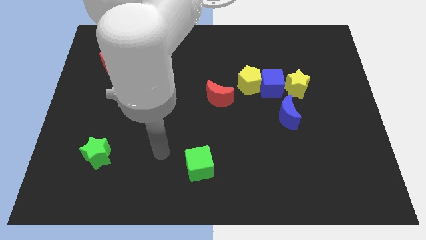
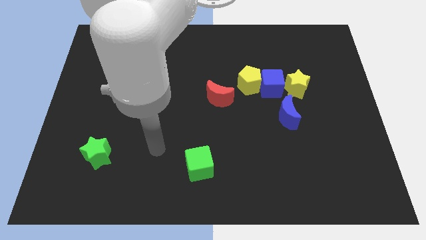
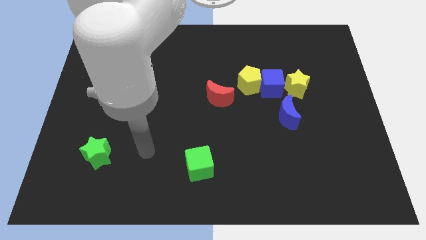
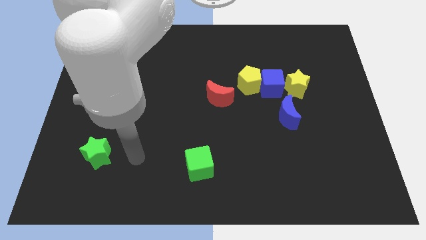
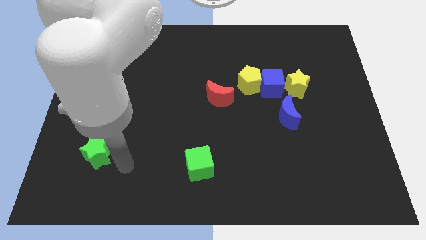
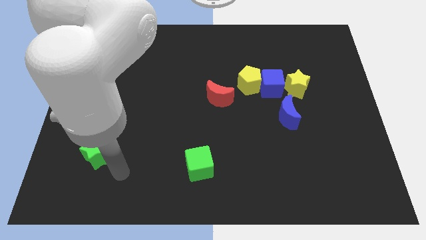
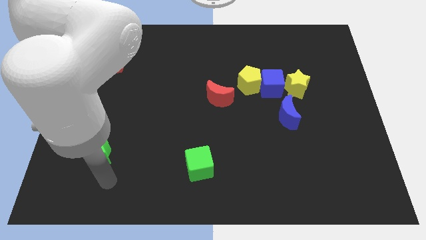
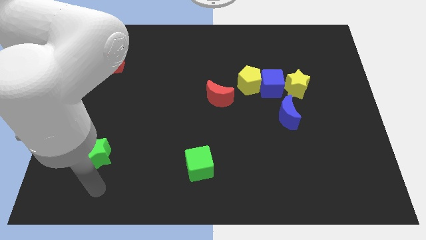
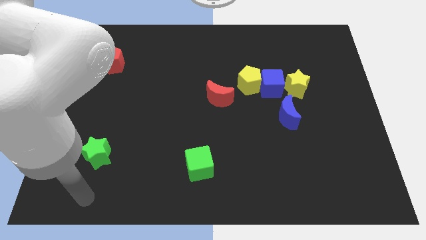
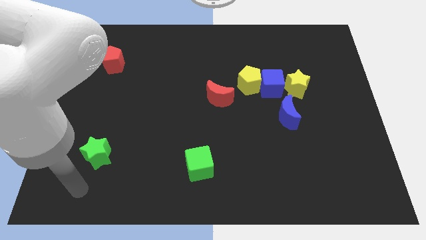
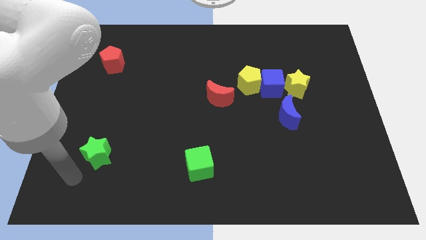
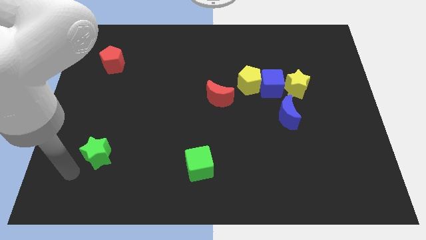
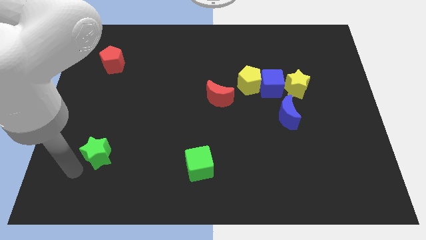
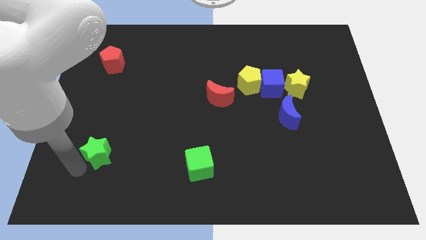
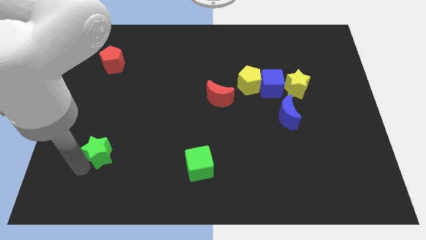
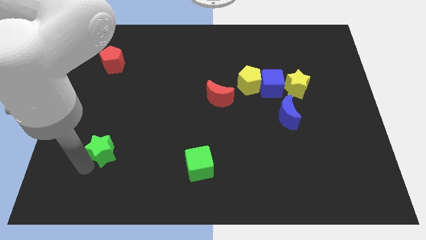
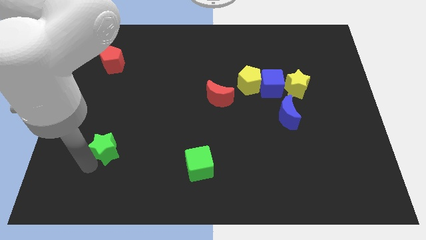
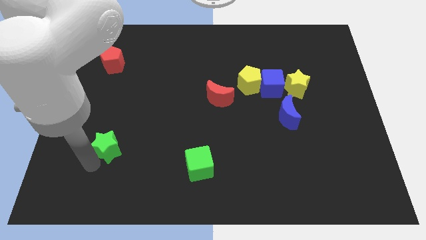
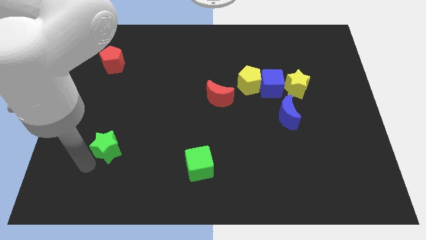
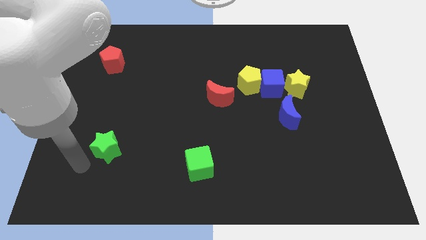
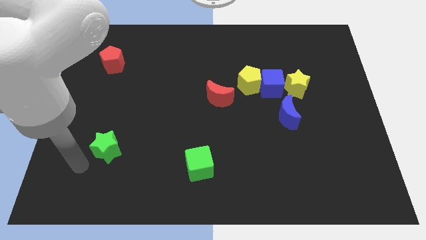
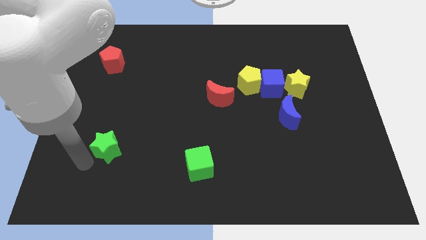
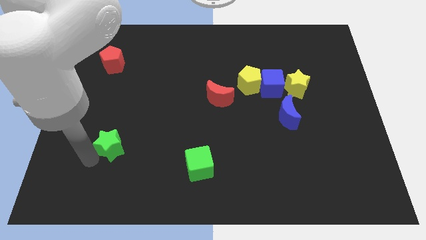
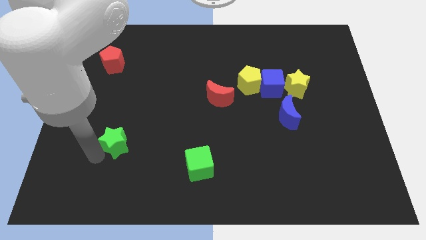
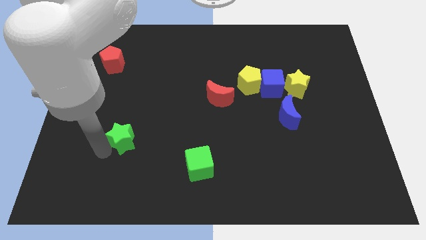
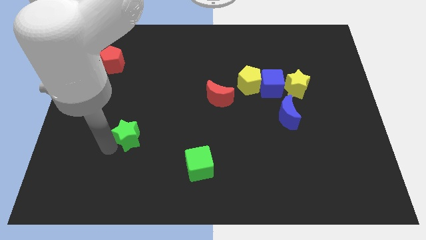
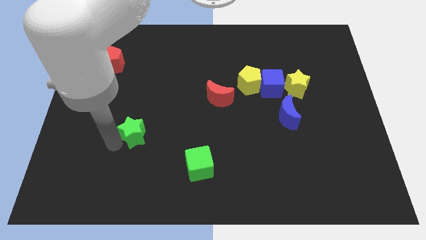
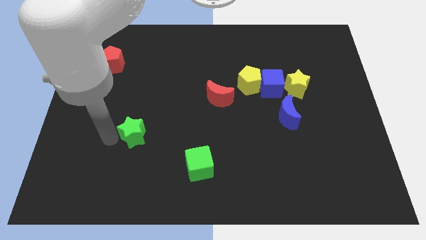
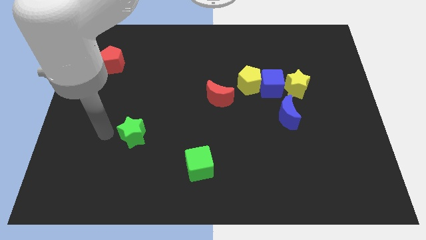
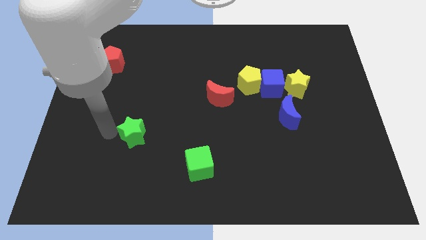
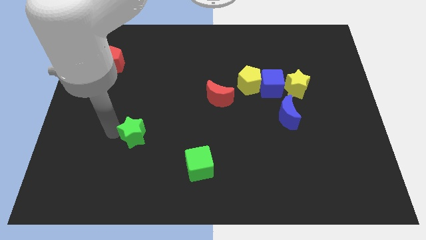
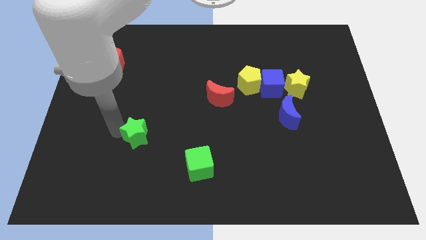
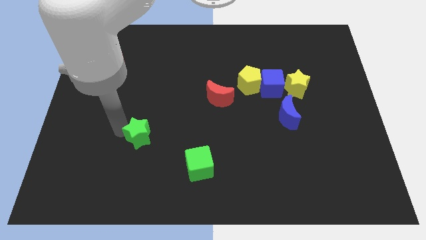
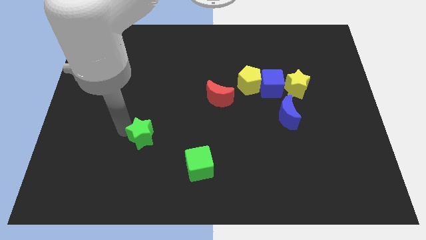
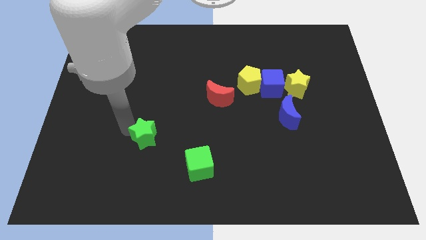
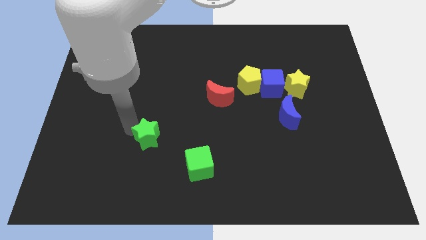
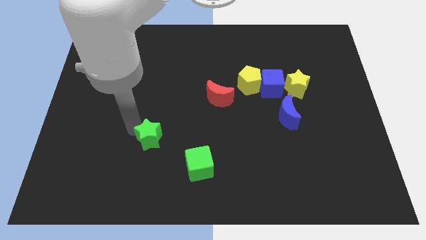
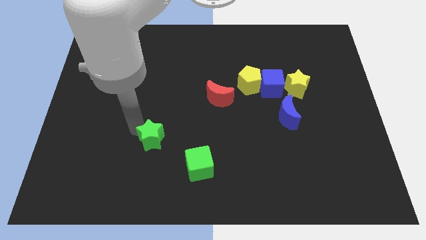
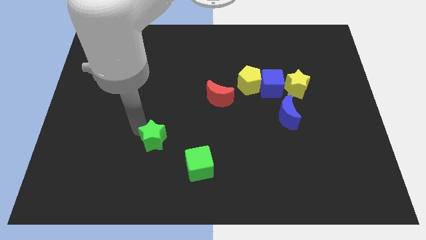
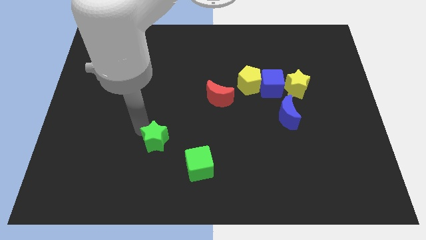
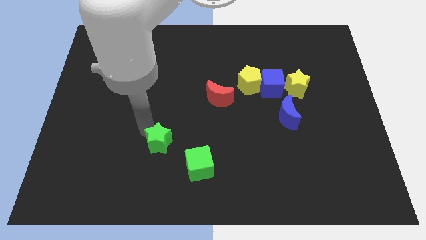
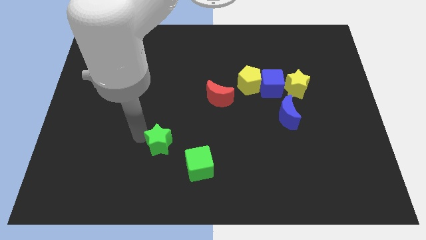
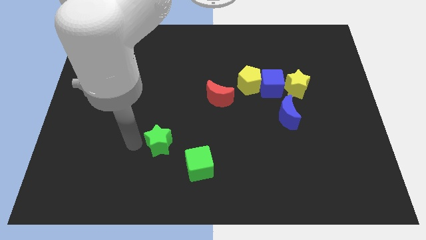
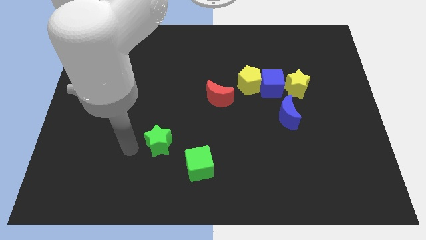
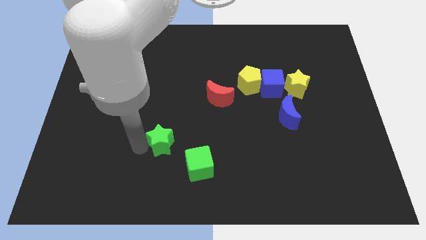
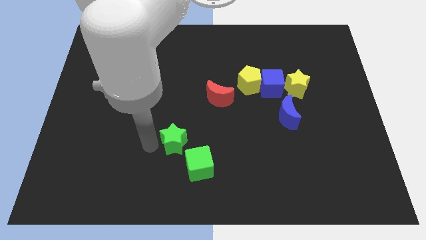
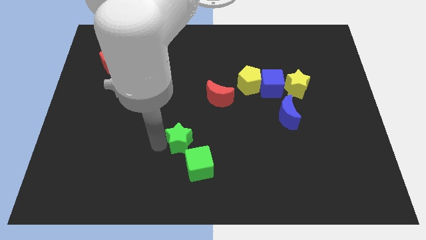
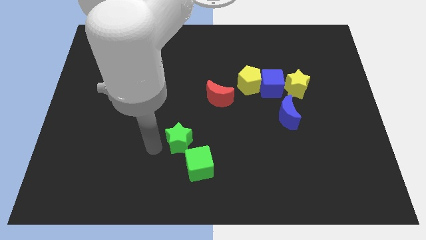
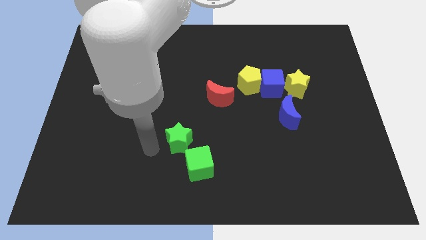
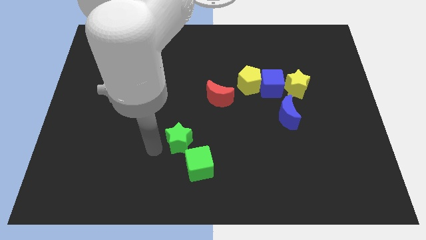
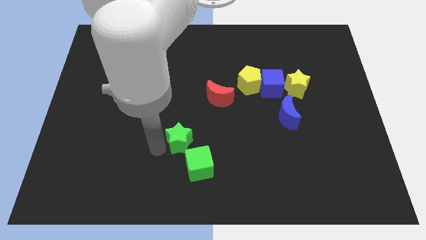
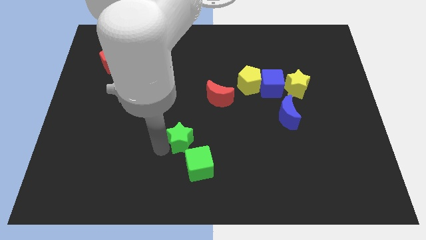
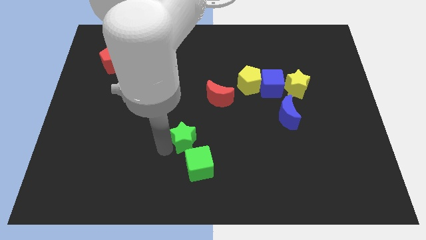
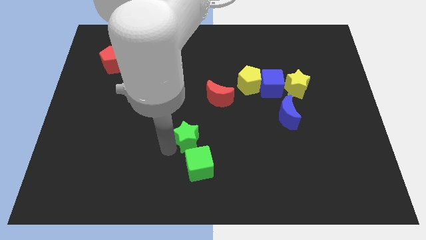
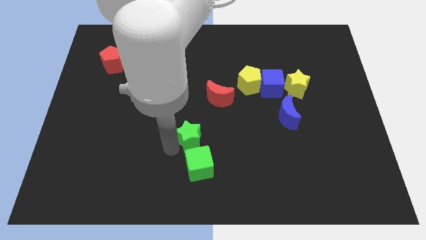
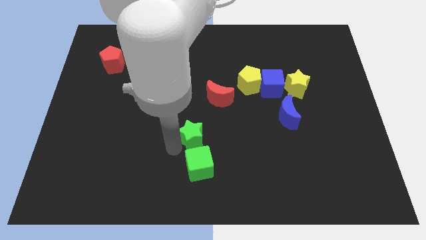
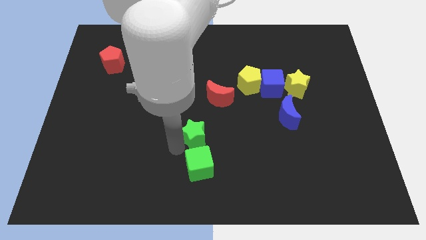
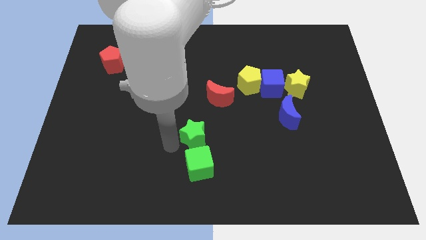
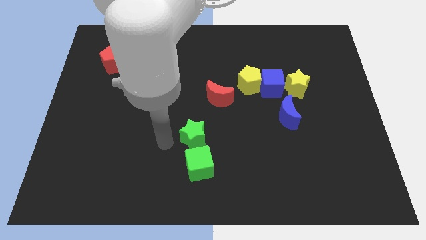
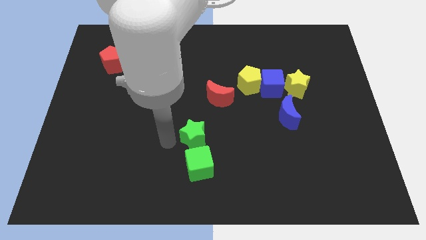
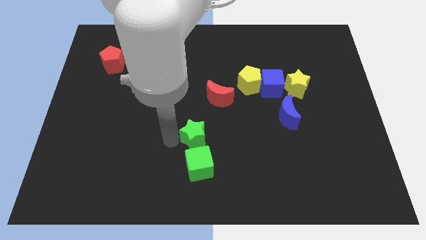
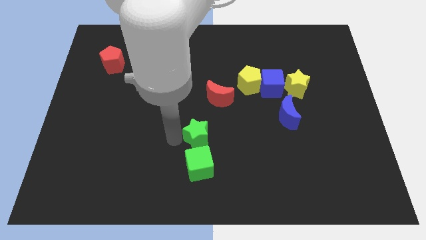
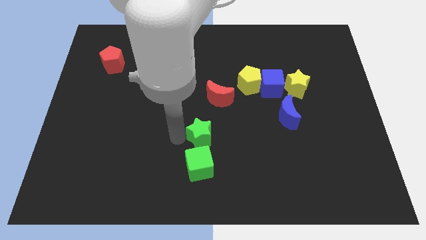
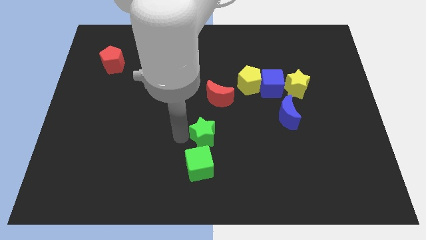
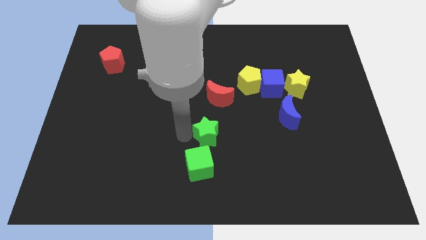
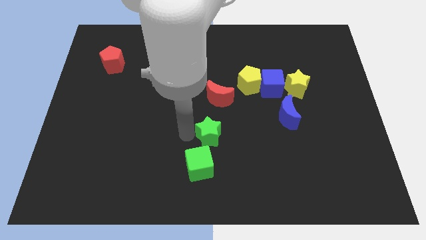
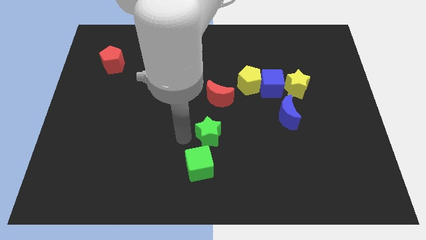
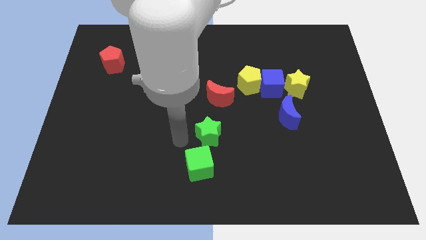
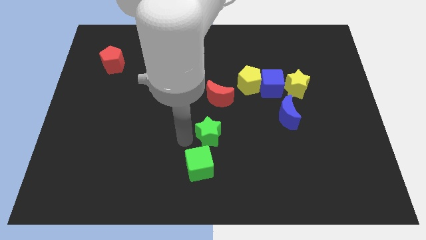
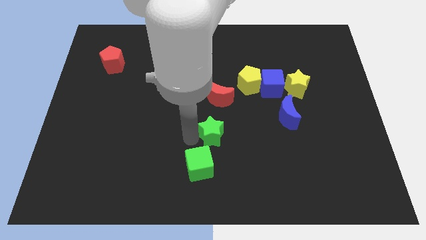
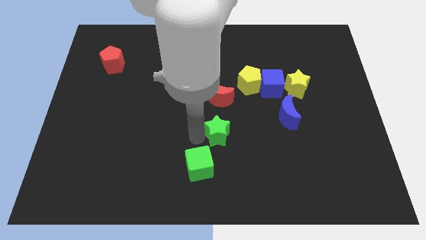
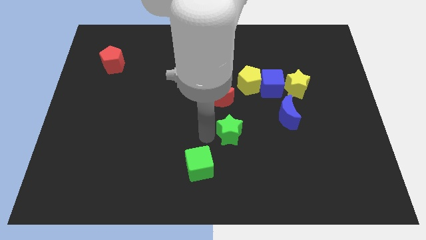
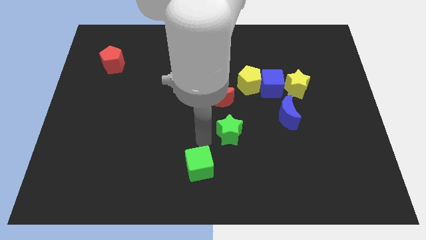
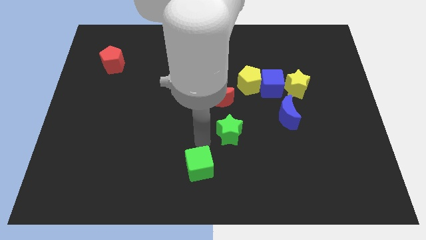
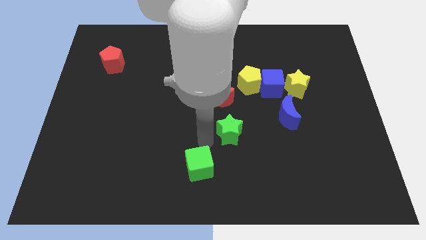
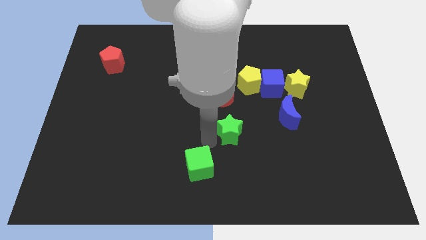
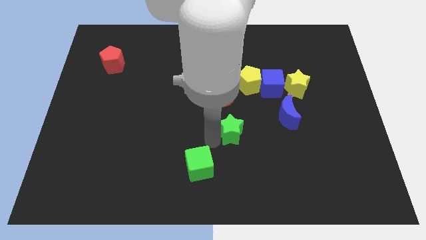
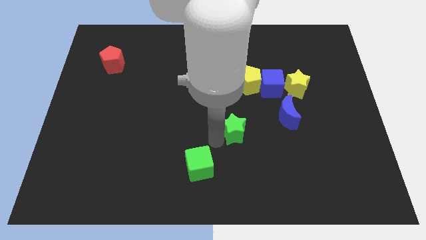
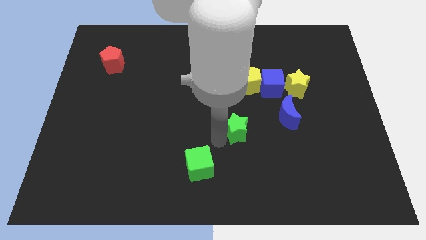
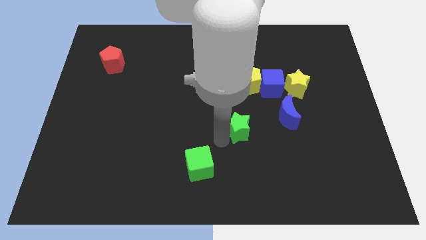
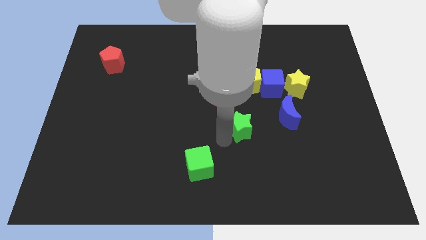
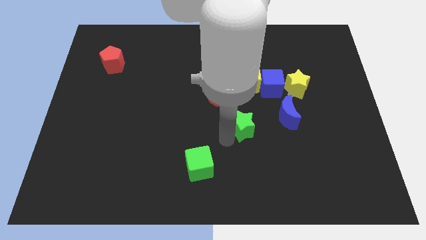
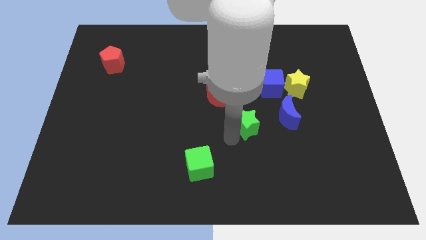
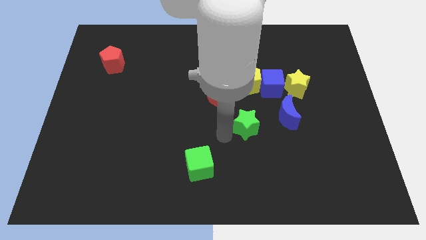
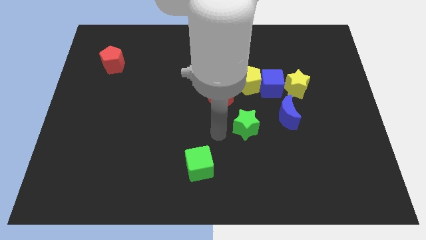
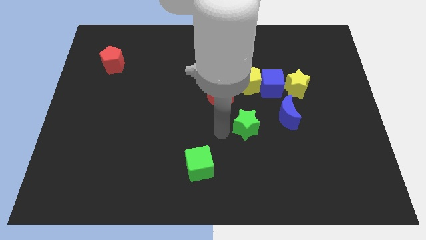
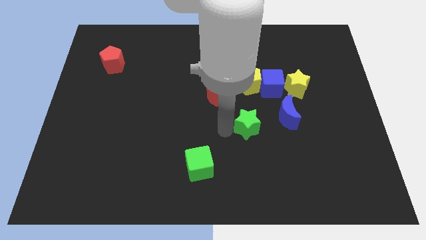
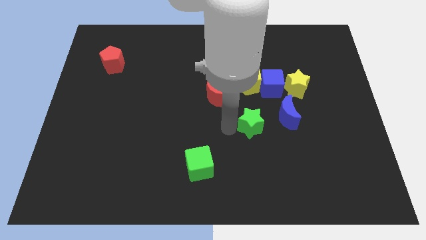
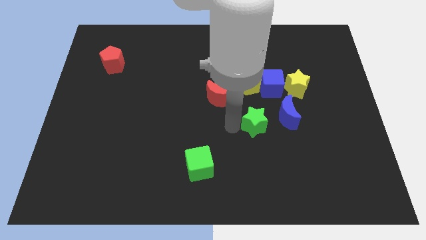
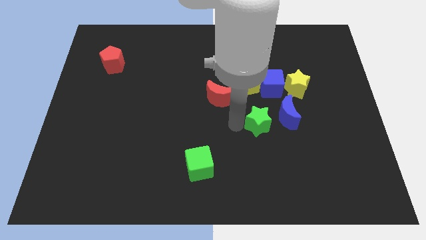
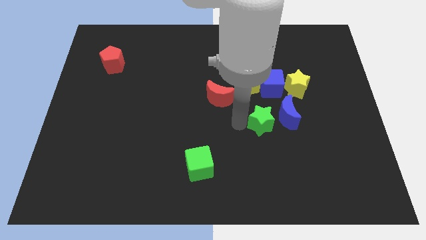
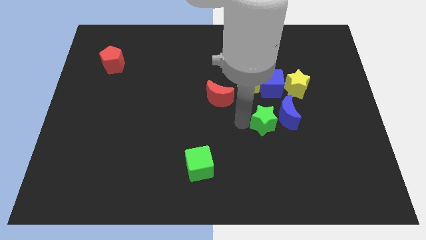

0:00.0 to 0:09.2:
move the green star towards the blue moon
